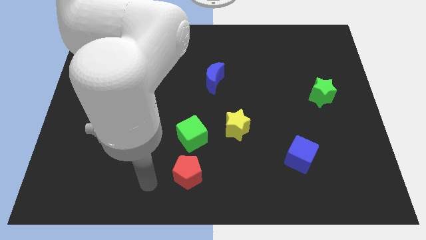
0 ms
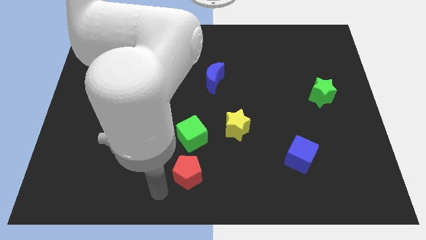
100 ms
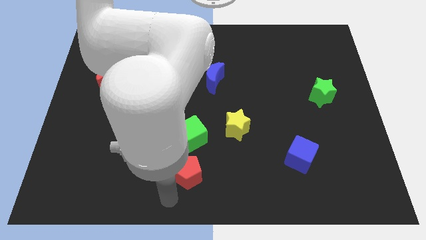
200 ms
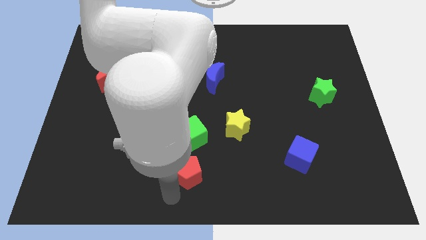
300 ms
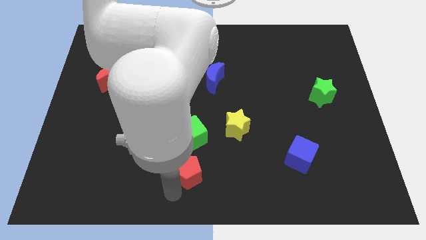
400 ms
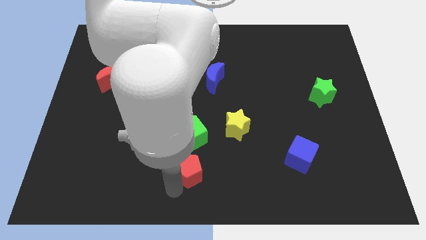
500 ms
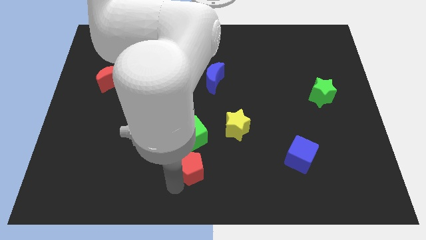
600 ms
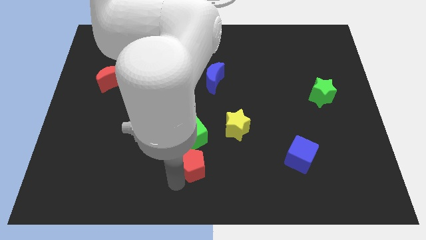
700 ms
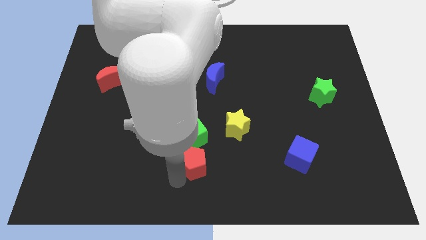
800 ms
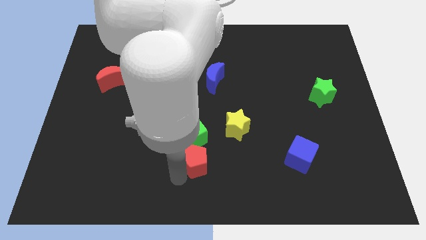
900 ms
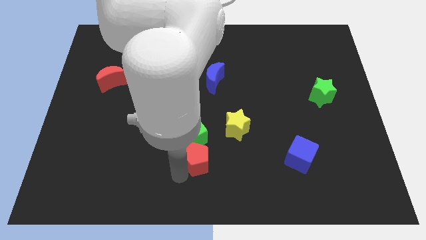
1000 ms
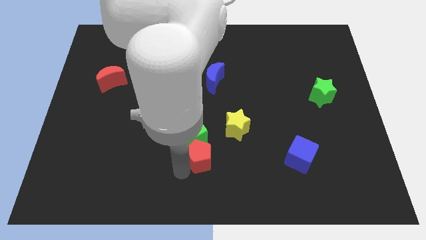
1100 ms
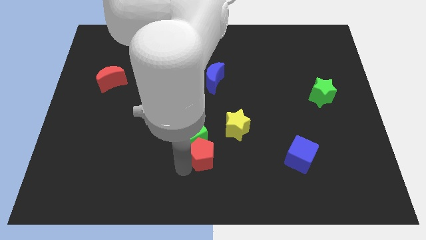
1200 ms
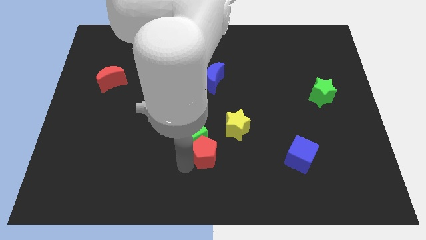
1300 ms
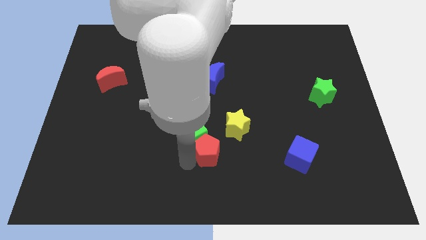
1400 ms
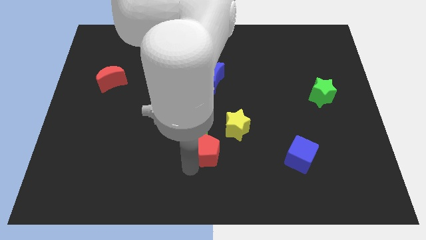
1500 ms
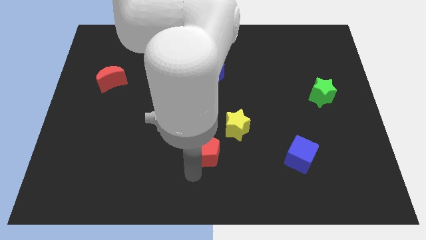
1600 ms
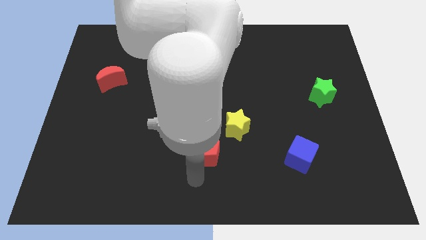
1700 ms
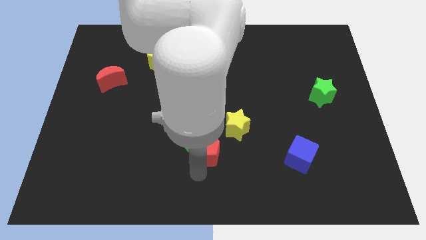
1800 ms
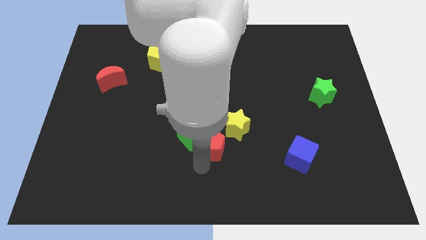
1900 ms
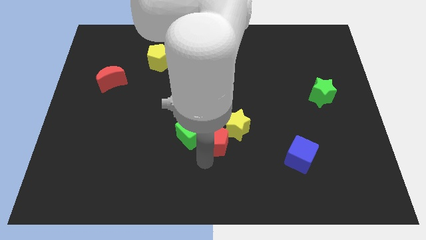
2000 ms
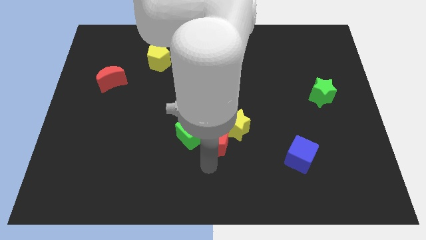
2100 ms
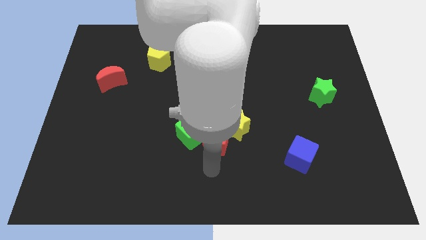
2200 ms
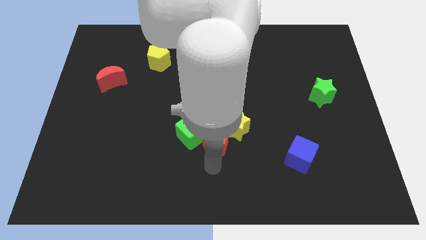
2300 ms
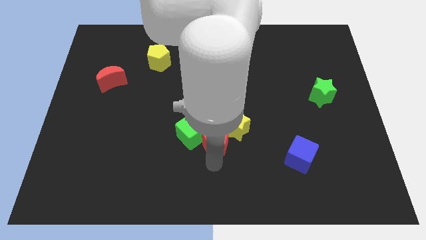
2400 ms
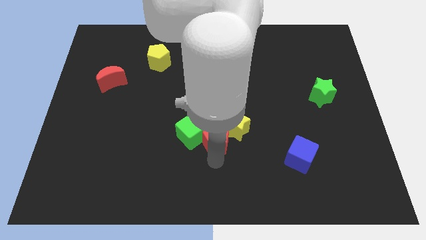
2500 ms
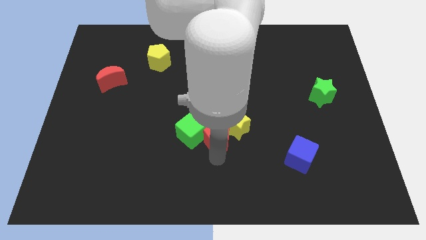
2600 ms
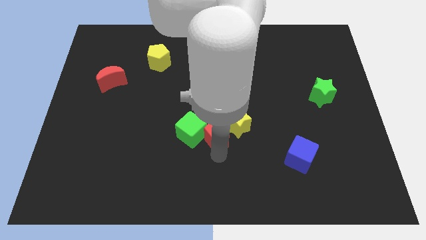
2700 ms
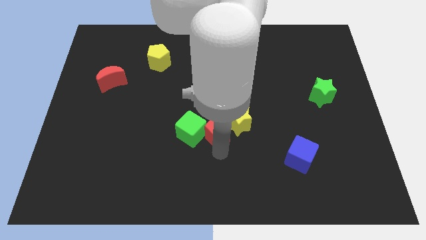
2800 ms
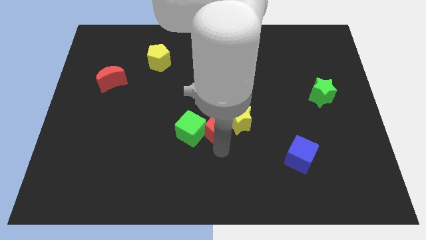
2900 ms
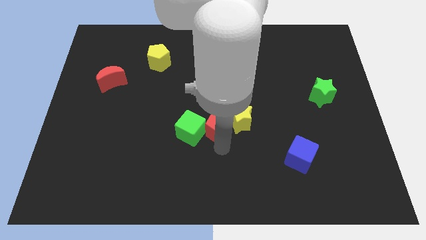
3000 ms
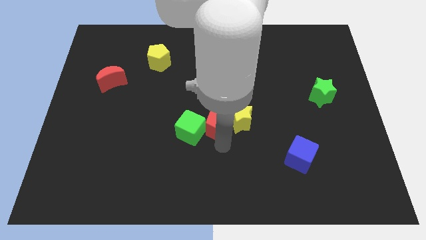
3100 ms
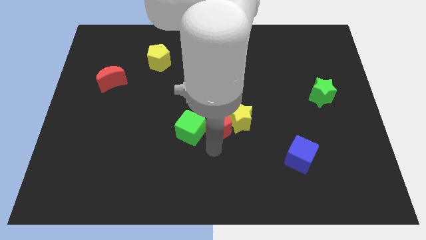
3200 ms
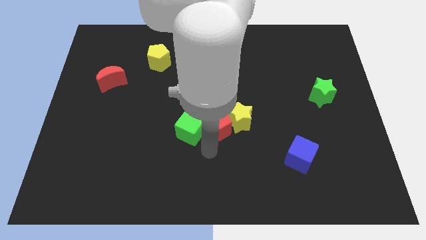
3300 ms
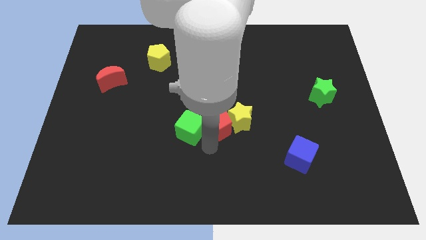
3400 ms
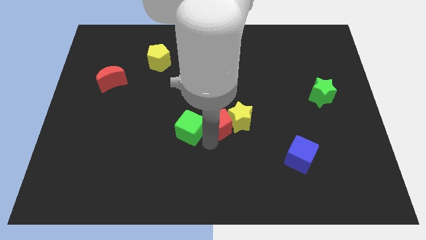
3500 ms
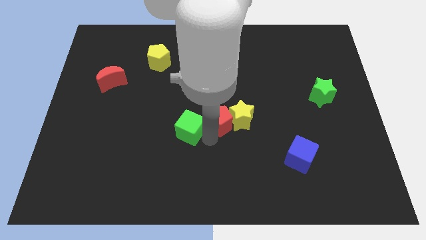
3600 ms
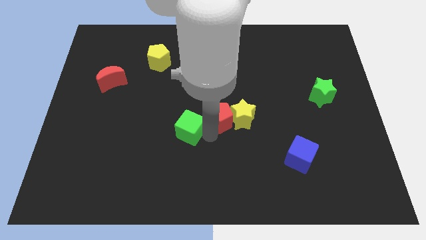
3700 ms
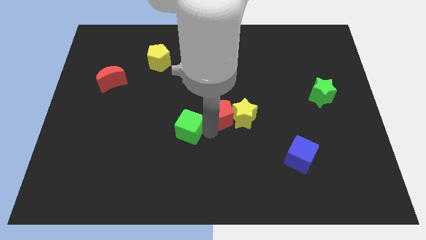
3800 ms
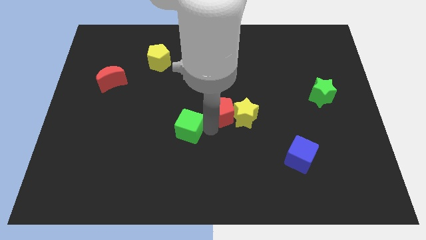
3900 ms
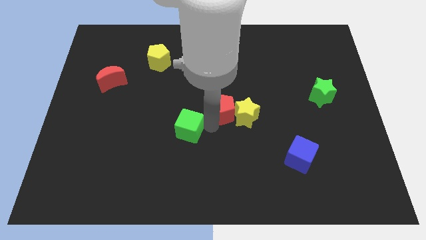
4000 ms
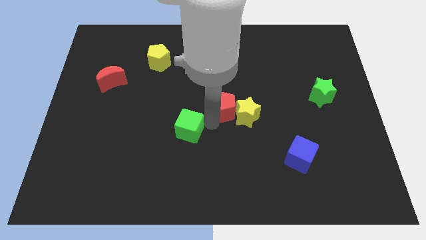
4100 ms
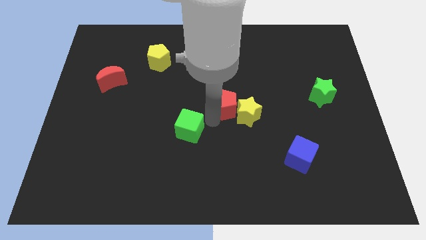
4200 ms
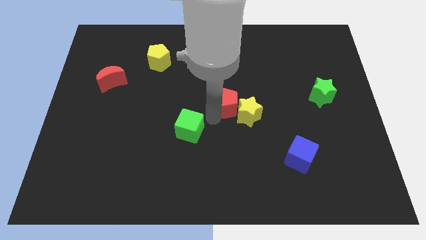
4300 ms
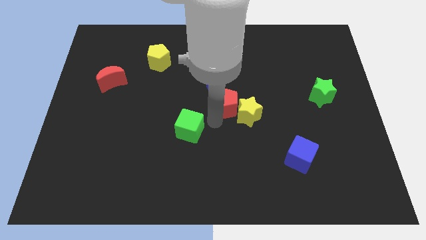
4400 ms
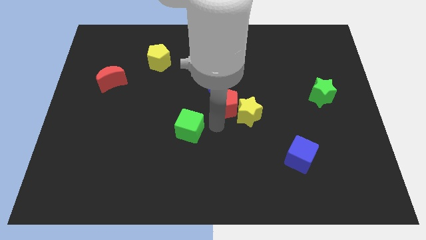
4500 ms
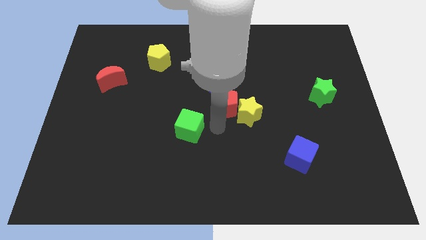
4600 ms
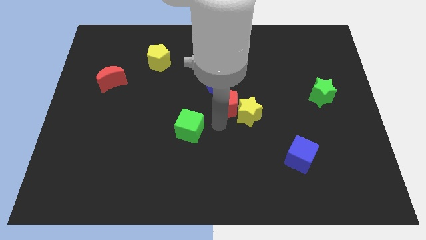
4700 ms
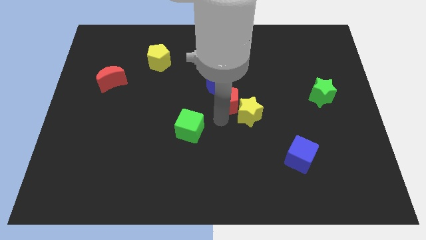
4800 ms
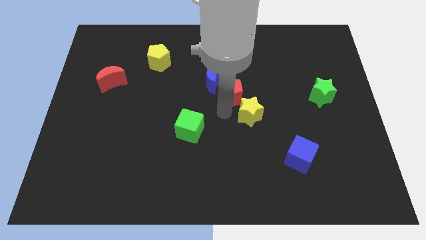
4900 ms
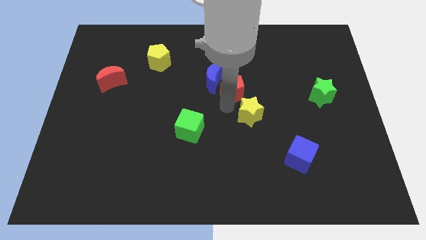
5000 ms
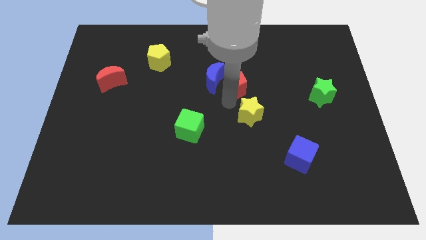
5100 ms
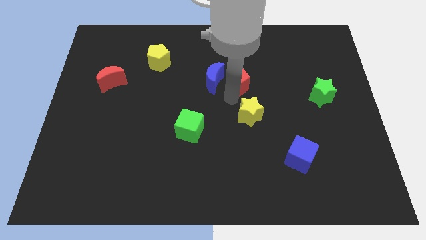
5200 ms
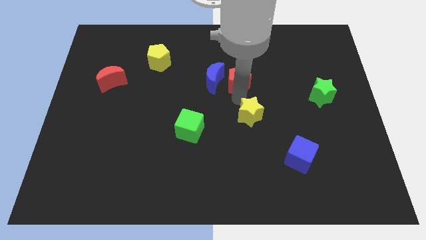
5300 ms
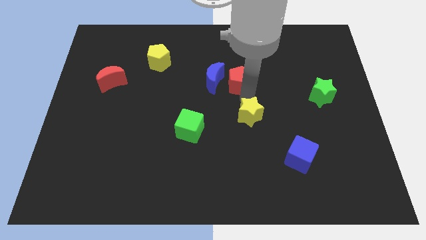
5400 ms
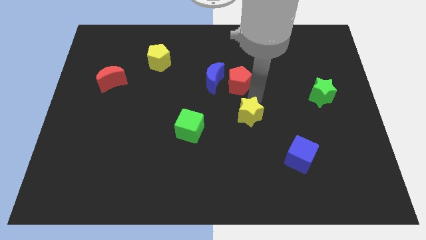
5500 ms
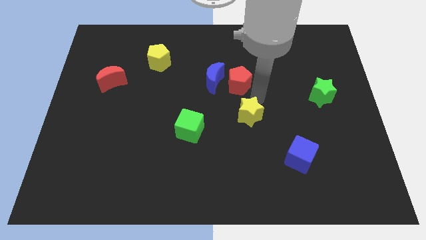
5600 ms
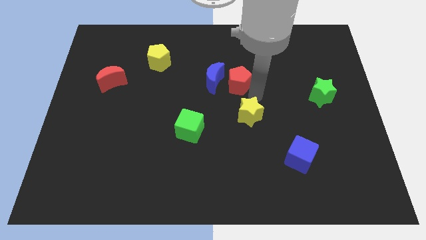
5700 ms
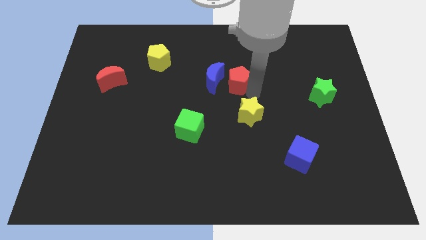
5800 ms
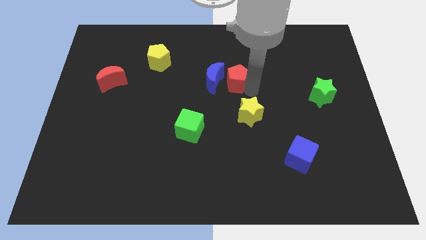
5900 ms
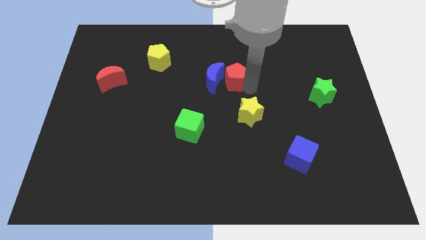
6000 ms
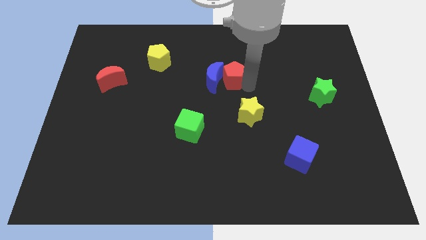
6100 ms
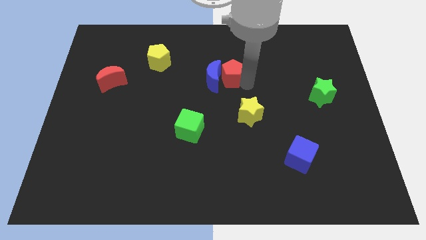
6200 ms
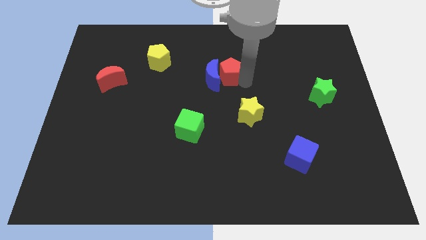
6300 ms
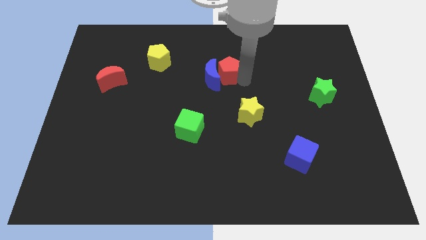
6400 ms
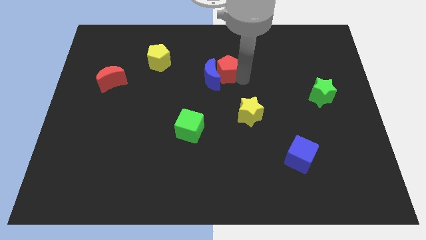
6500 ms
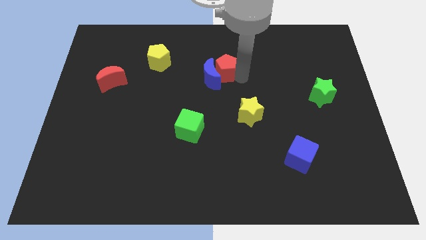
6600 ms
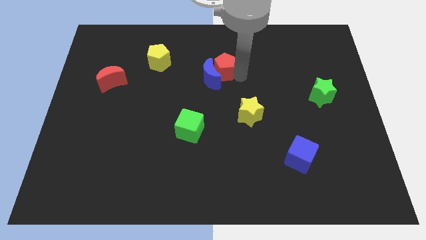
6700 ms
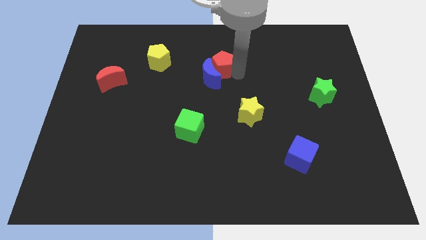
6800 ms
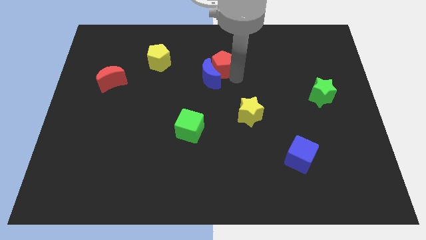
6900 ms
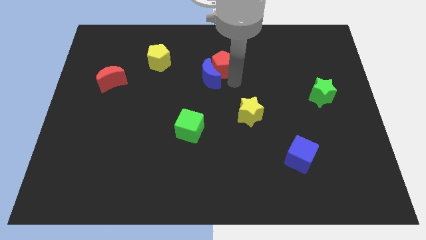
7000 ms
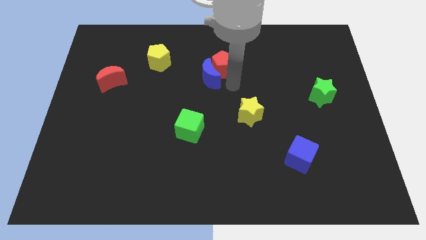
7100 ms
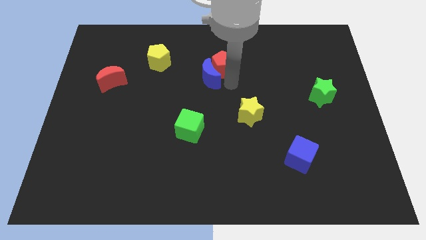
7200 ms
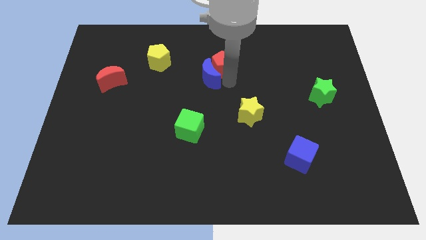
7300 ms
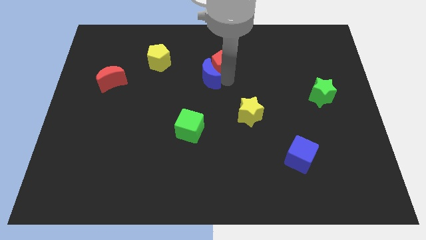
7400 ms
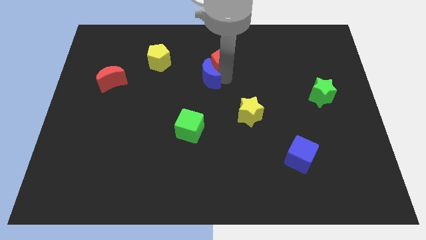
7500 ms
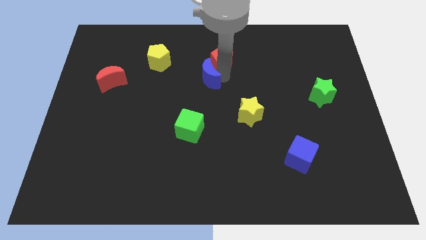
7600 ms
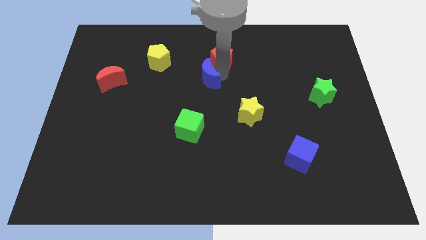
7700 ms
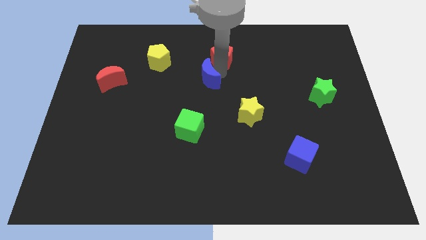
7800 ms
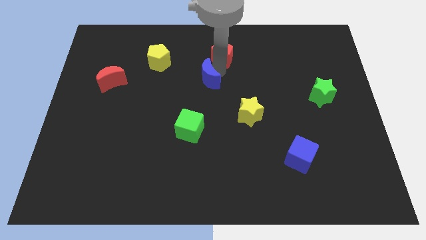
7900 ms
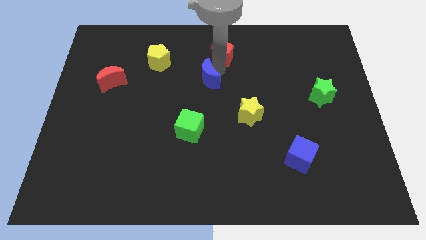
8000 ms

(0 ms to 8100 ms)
slide the red pentagon to the top side
